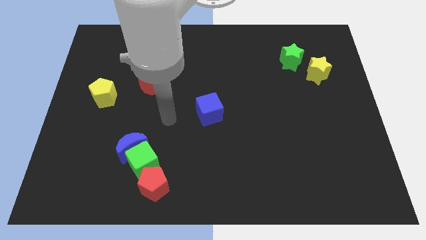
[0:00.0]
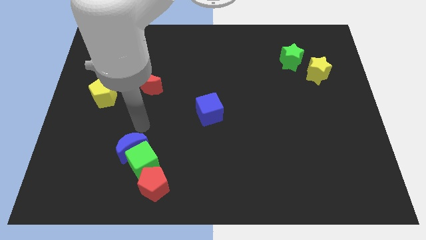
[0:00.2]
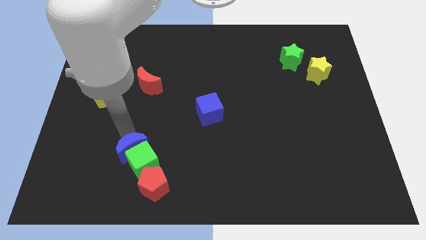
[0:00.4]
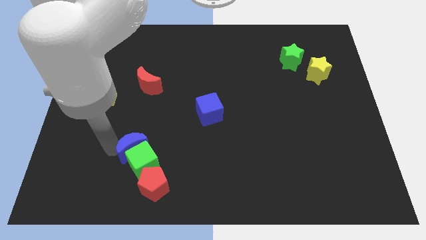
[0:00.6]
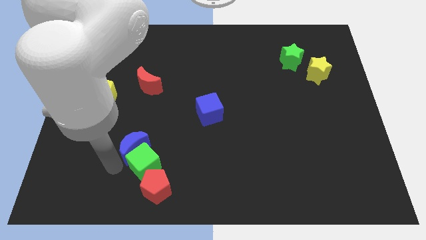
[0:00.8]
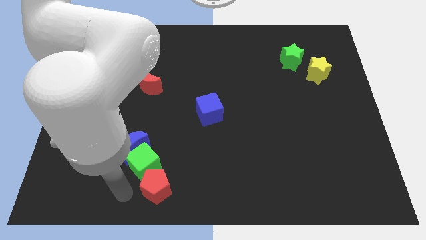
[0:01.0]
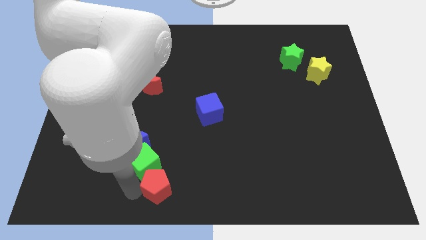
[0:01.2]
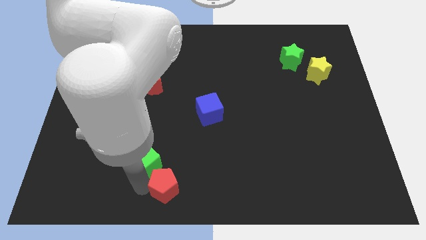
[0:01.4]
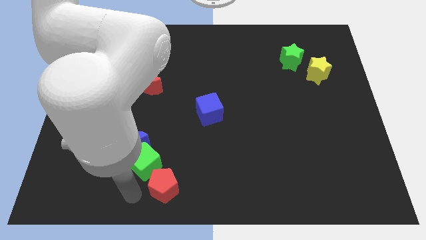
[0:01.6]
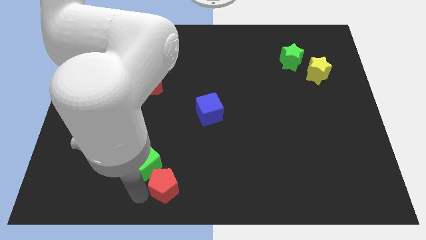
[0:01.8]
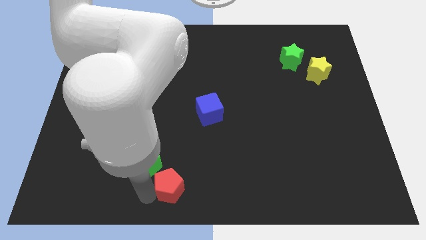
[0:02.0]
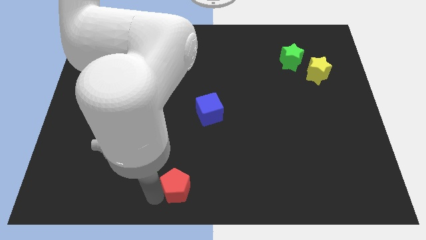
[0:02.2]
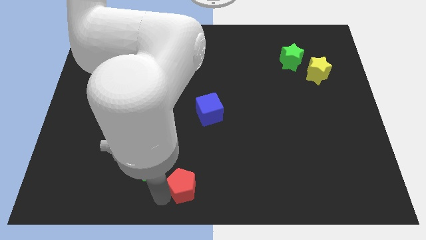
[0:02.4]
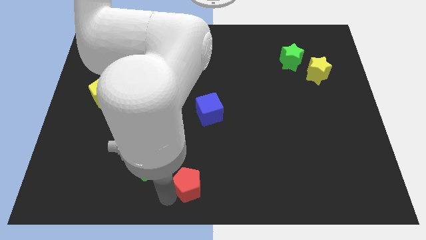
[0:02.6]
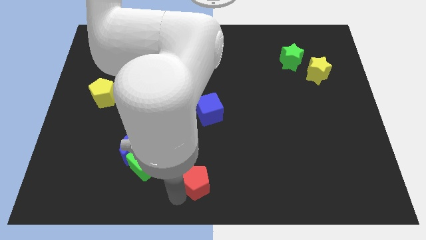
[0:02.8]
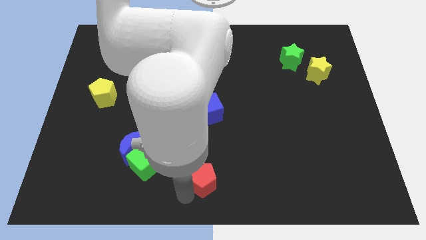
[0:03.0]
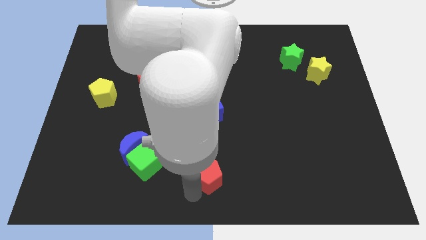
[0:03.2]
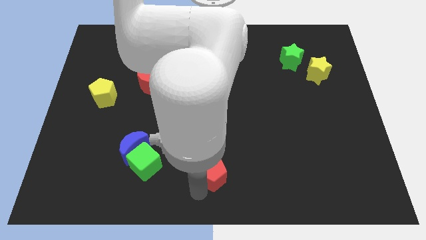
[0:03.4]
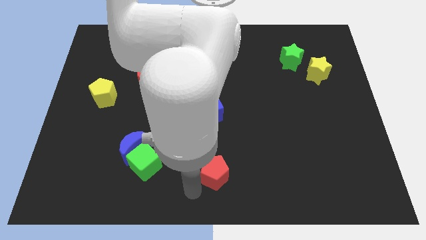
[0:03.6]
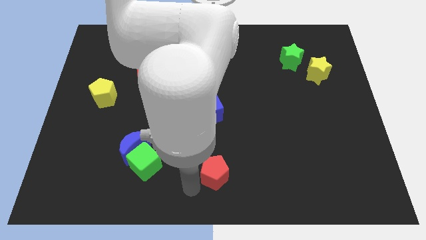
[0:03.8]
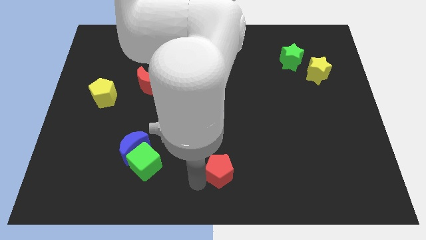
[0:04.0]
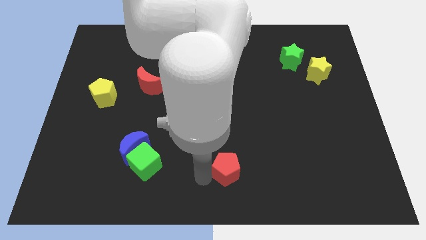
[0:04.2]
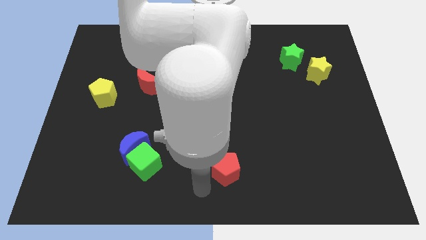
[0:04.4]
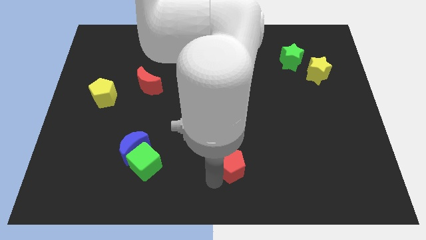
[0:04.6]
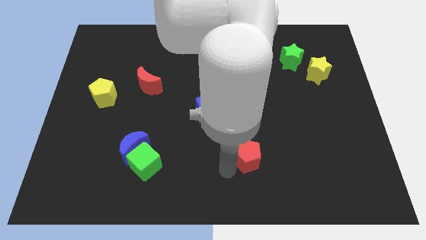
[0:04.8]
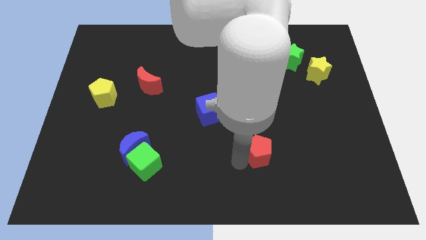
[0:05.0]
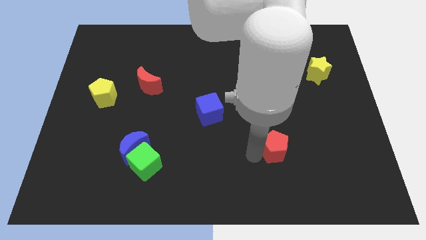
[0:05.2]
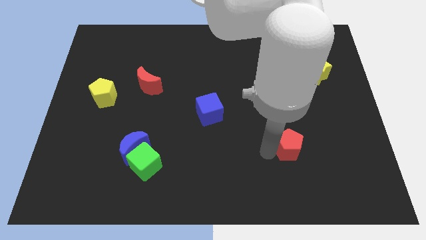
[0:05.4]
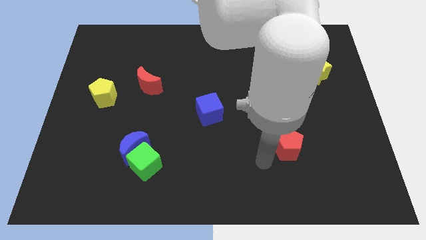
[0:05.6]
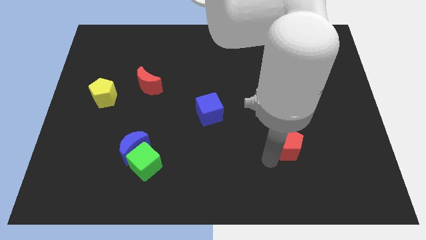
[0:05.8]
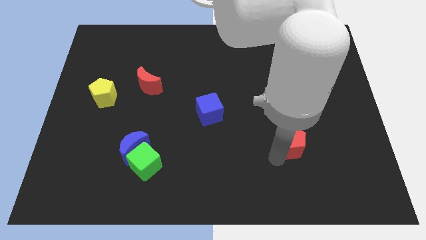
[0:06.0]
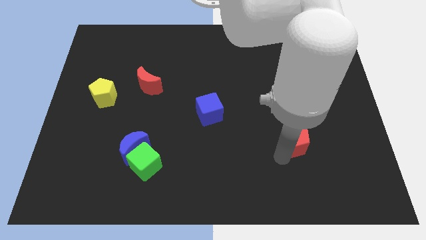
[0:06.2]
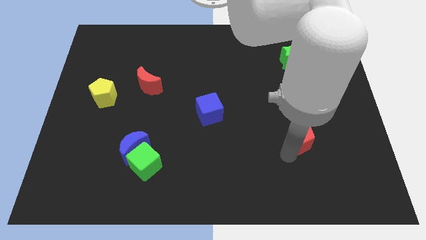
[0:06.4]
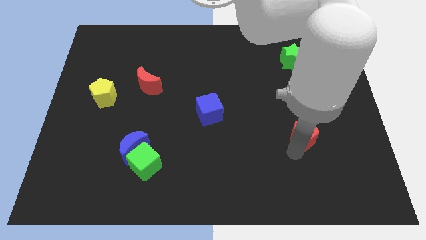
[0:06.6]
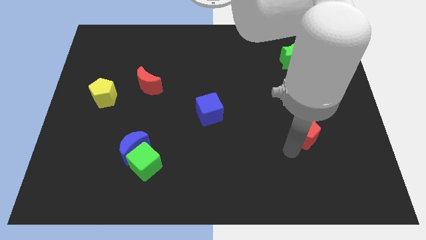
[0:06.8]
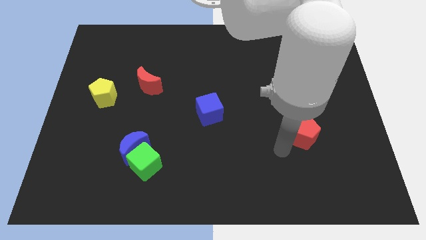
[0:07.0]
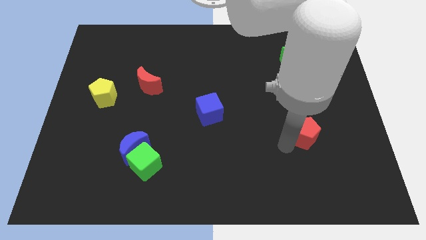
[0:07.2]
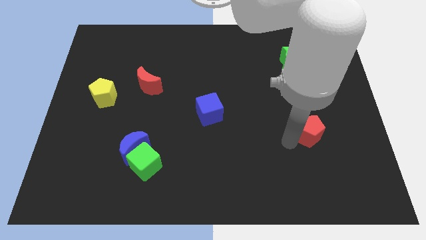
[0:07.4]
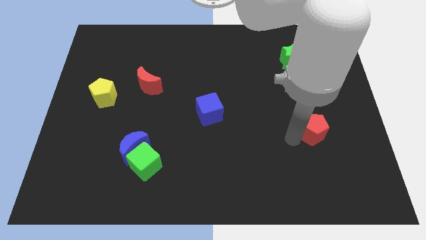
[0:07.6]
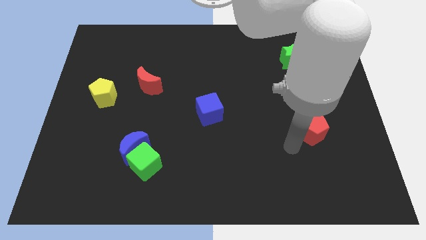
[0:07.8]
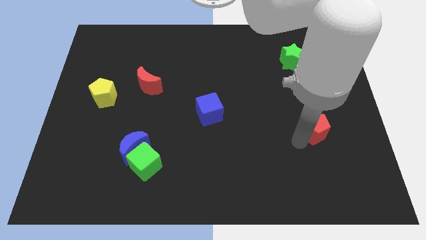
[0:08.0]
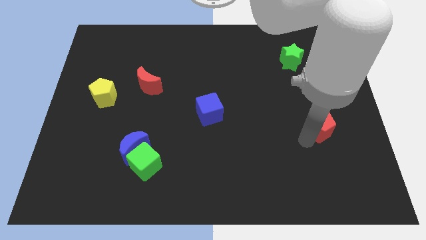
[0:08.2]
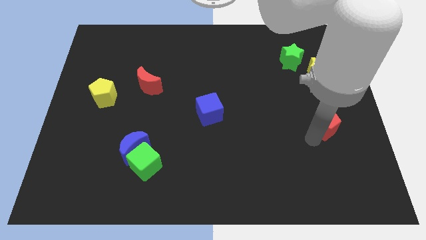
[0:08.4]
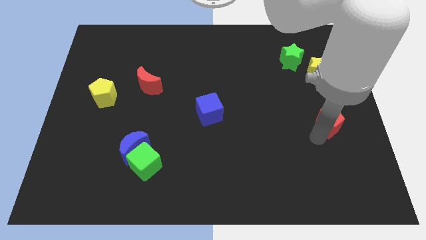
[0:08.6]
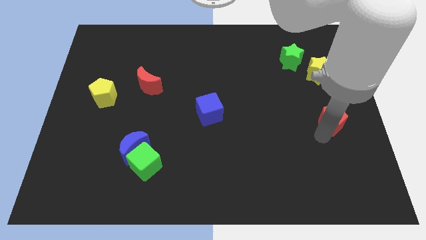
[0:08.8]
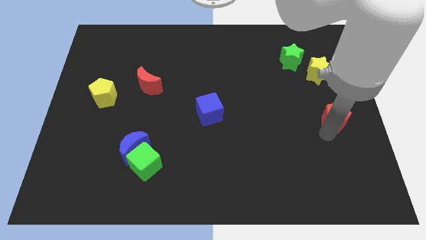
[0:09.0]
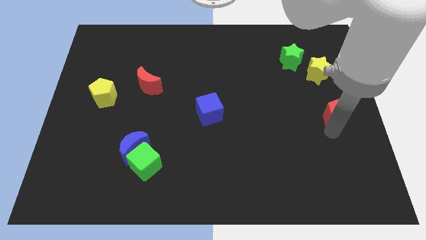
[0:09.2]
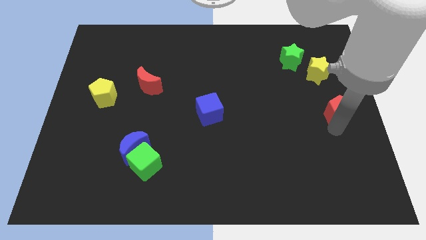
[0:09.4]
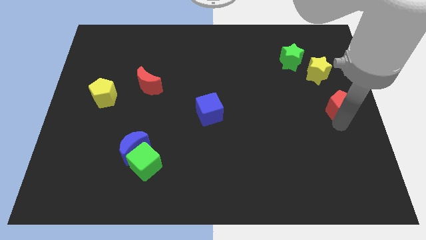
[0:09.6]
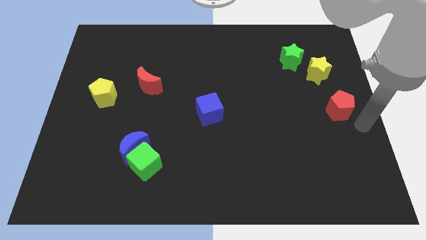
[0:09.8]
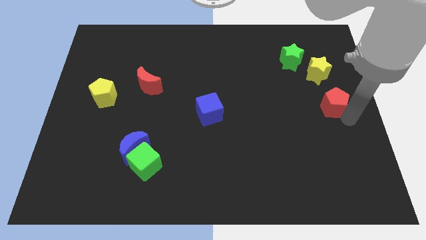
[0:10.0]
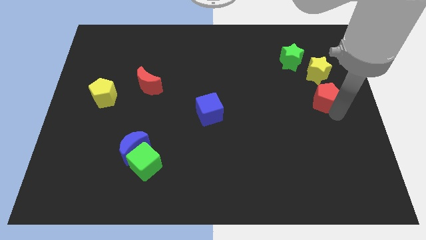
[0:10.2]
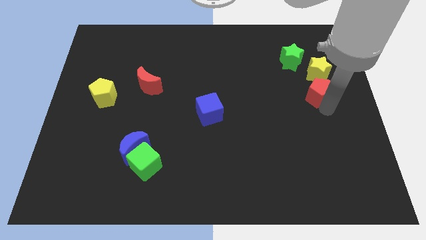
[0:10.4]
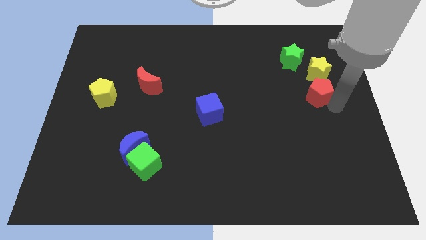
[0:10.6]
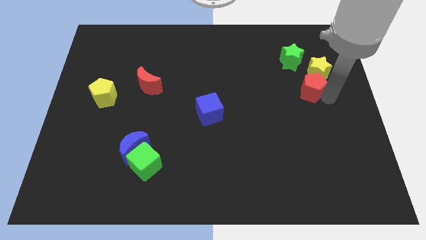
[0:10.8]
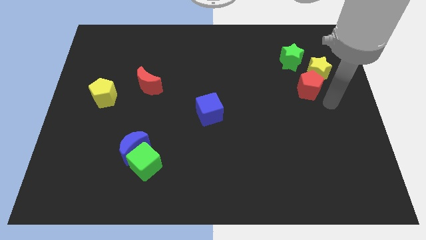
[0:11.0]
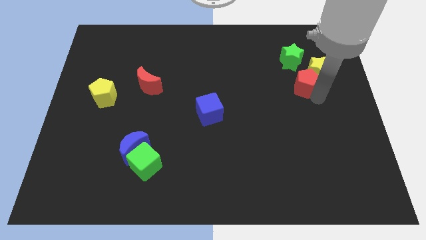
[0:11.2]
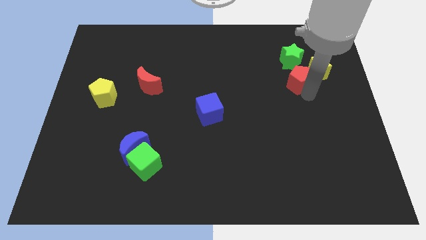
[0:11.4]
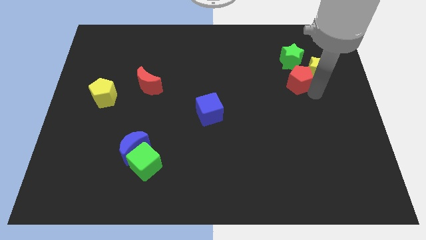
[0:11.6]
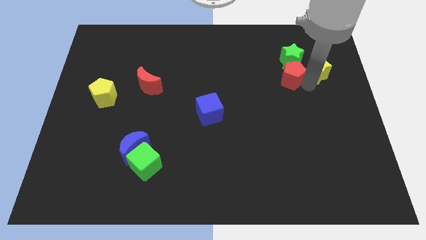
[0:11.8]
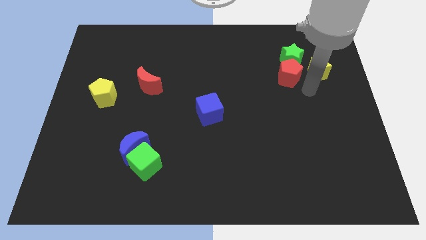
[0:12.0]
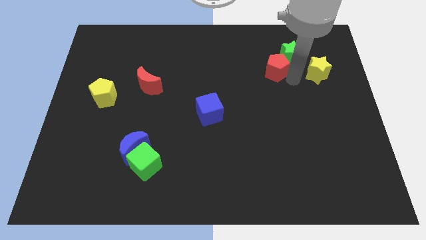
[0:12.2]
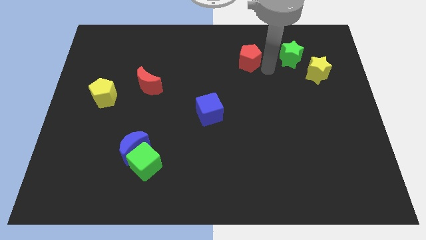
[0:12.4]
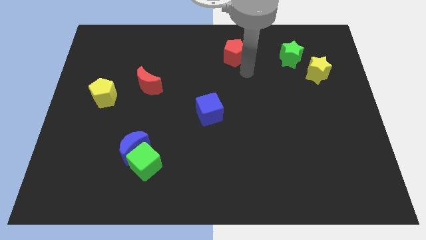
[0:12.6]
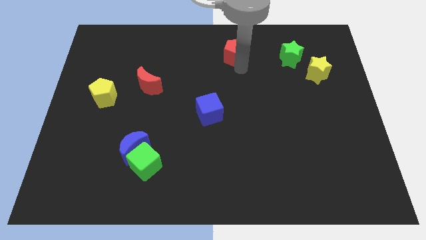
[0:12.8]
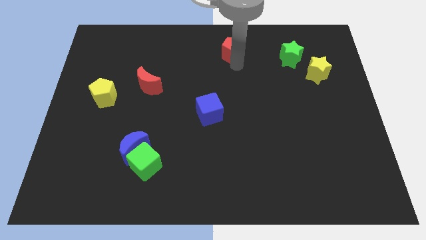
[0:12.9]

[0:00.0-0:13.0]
slide the red pentagon to the top side
